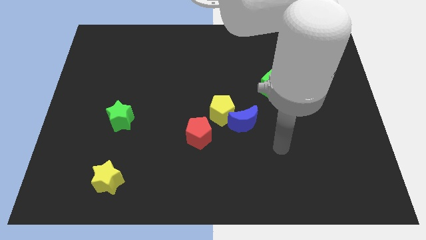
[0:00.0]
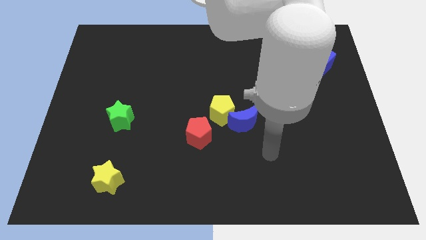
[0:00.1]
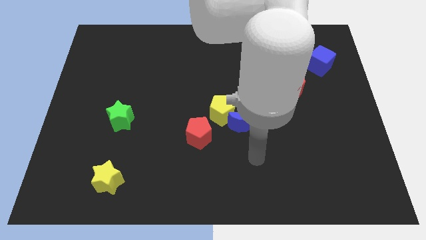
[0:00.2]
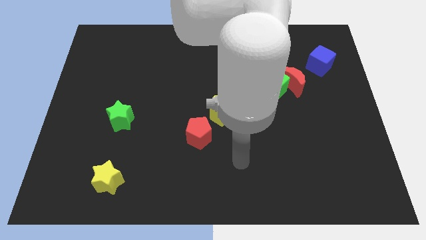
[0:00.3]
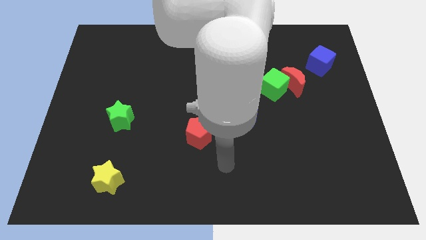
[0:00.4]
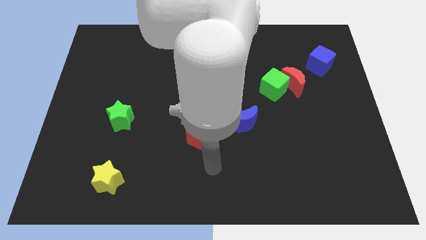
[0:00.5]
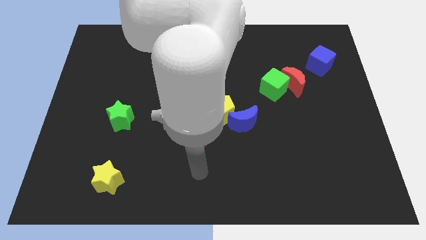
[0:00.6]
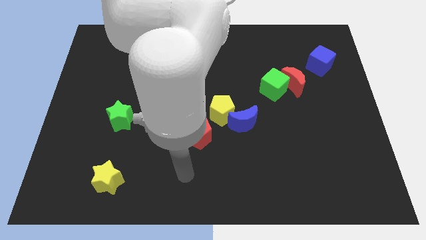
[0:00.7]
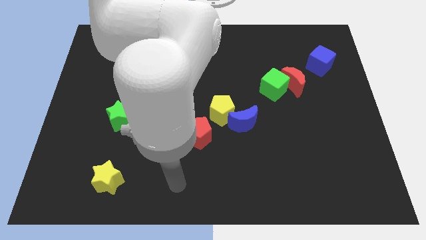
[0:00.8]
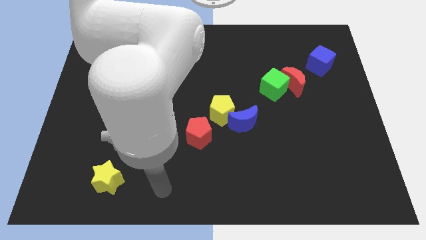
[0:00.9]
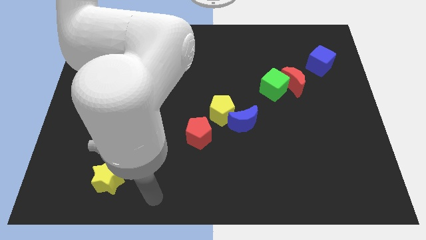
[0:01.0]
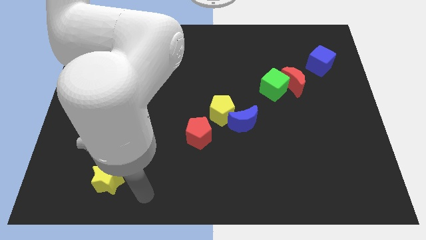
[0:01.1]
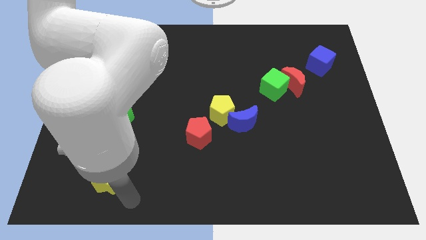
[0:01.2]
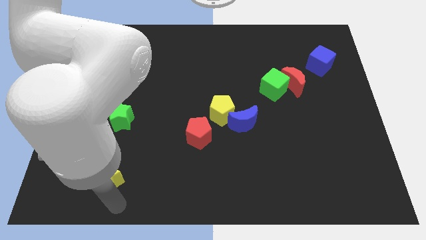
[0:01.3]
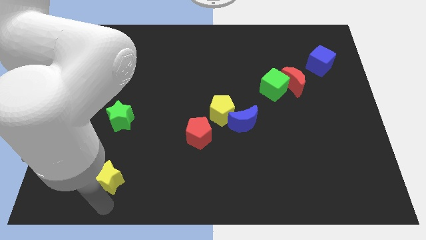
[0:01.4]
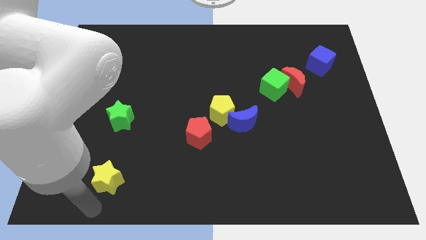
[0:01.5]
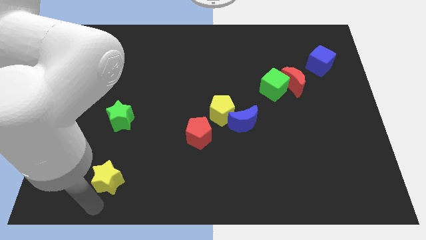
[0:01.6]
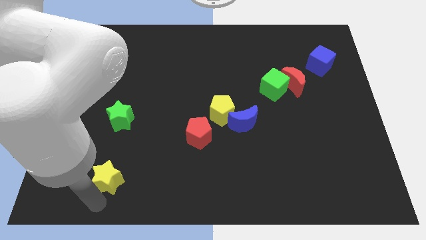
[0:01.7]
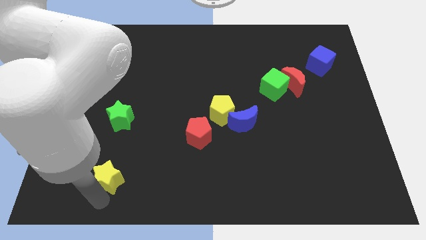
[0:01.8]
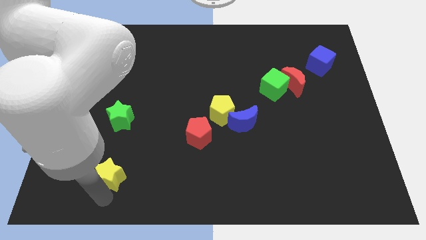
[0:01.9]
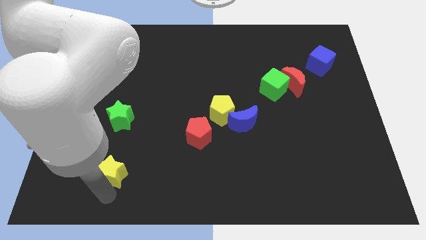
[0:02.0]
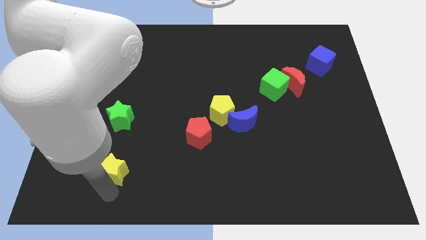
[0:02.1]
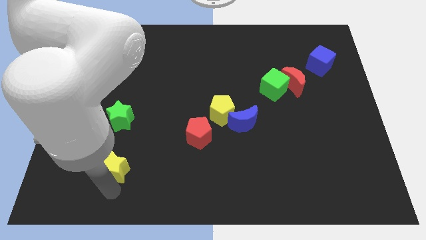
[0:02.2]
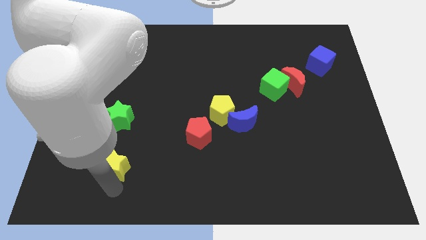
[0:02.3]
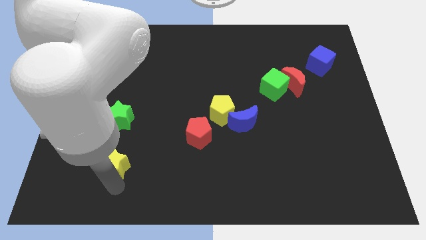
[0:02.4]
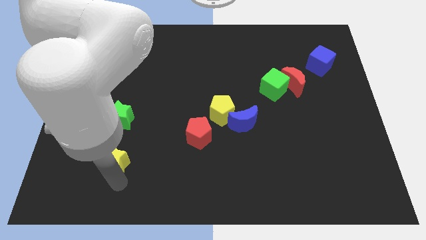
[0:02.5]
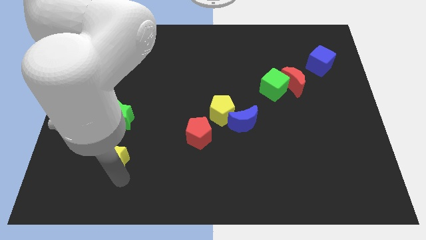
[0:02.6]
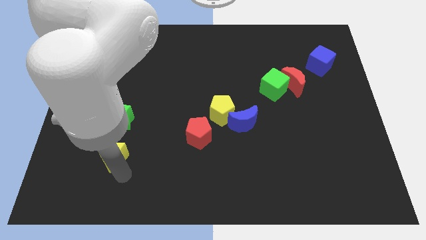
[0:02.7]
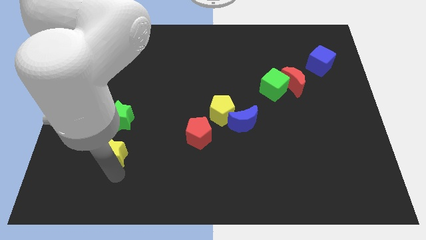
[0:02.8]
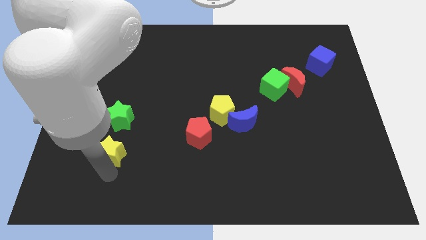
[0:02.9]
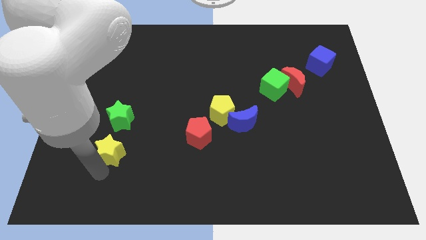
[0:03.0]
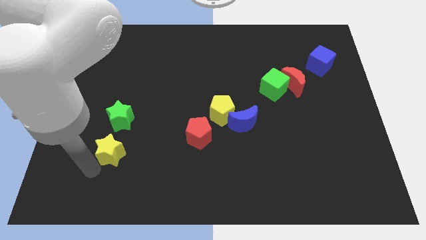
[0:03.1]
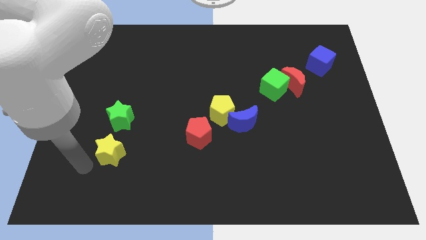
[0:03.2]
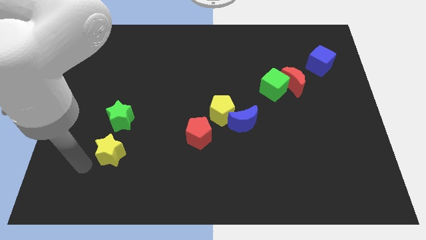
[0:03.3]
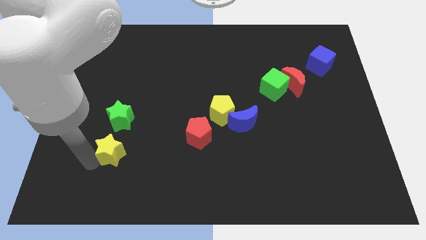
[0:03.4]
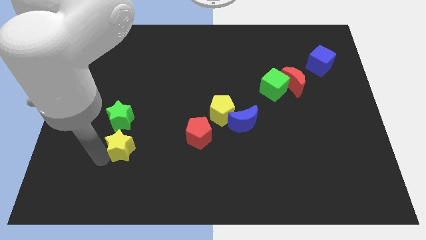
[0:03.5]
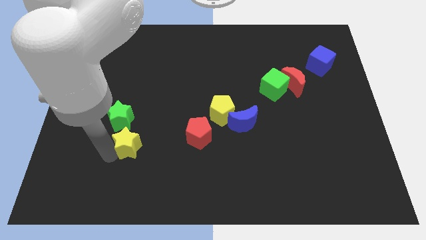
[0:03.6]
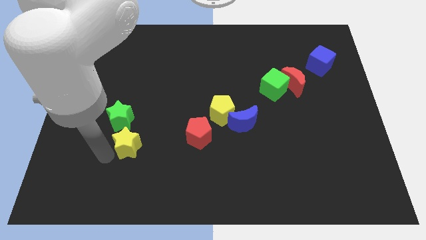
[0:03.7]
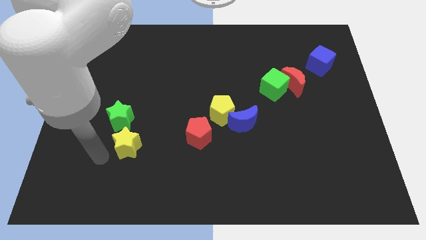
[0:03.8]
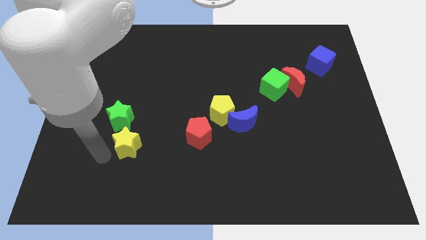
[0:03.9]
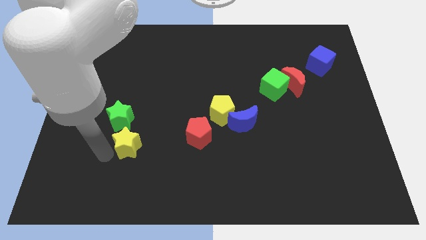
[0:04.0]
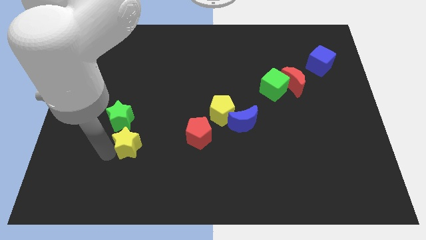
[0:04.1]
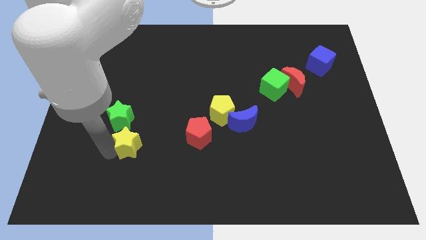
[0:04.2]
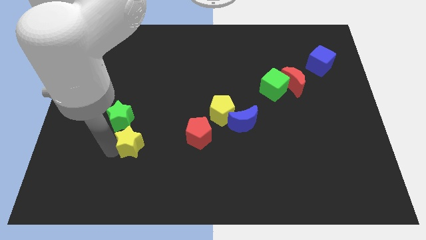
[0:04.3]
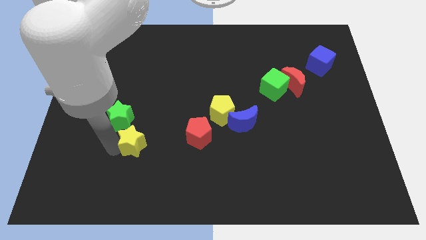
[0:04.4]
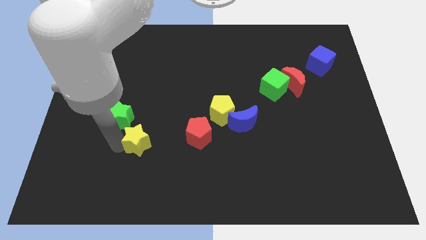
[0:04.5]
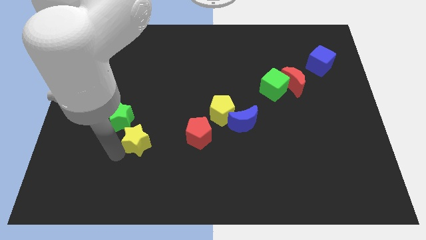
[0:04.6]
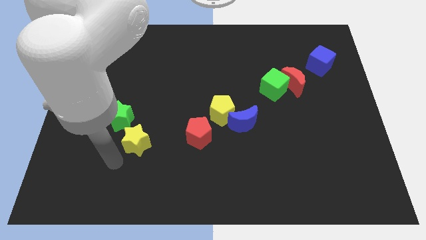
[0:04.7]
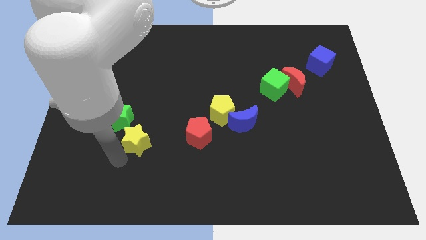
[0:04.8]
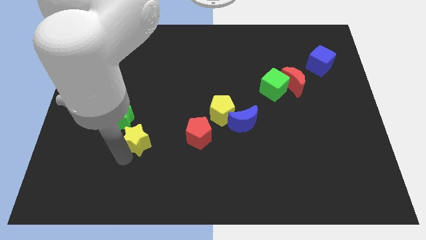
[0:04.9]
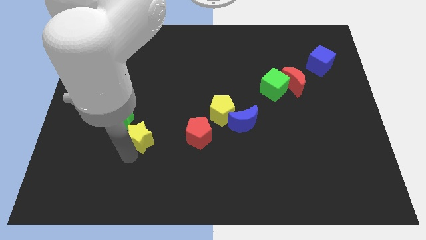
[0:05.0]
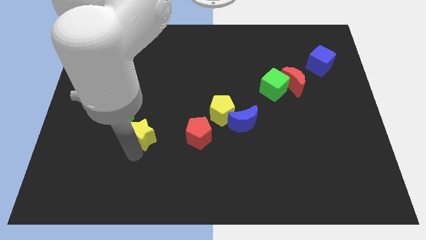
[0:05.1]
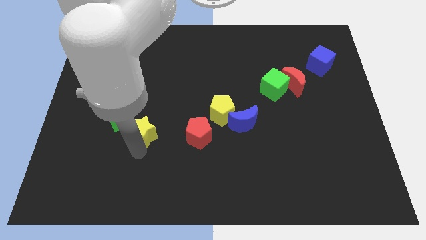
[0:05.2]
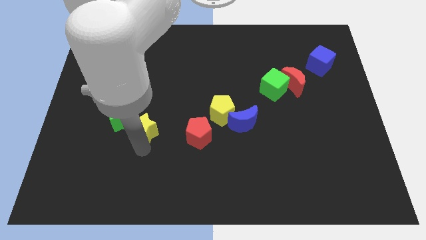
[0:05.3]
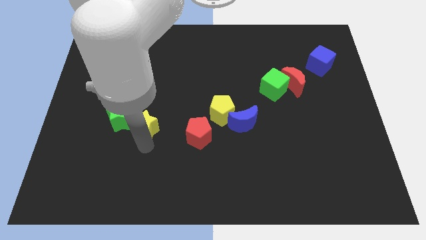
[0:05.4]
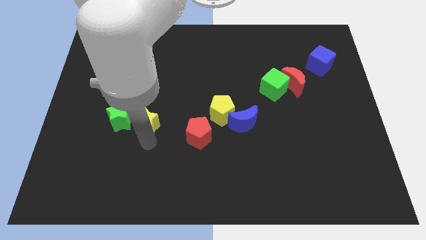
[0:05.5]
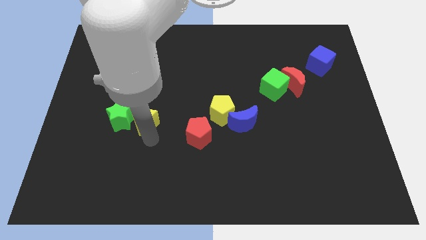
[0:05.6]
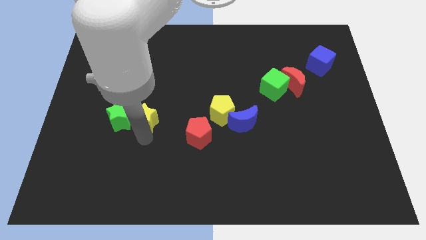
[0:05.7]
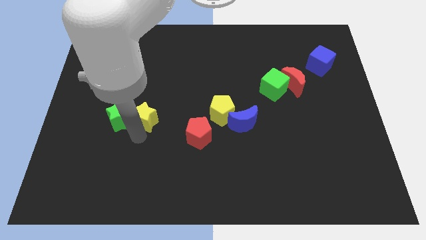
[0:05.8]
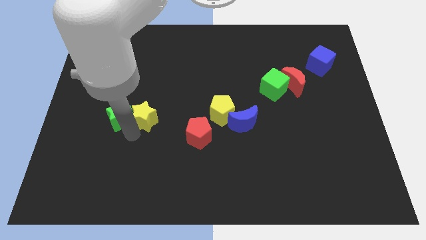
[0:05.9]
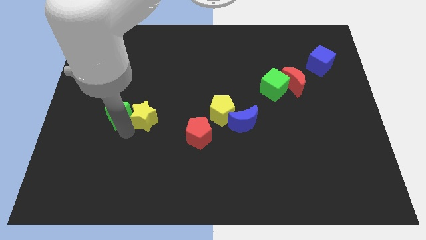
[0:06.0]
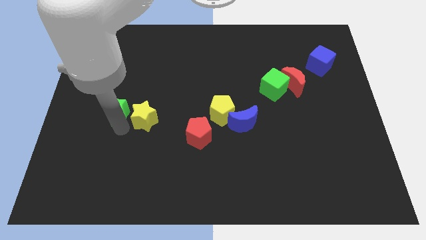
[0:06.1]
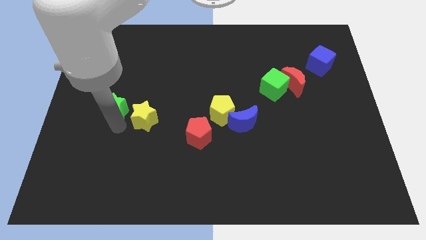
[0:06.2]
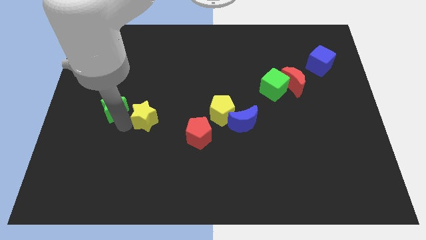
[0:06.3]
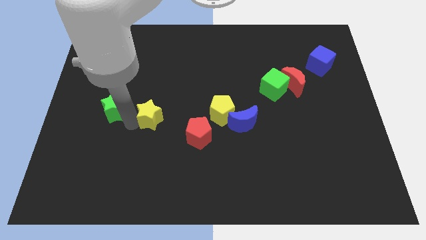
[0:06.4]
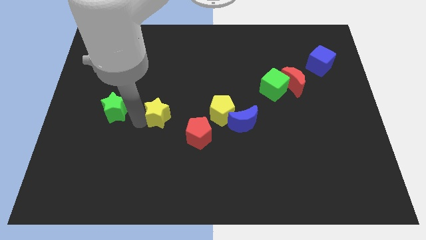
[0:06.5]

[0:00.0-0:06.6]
slide the yellow star just left of the yellow pentagon
